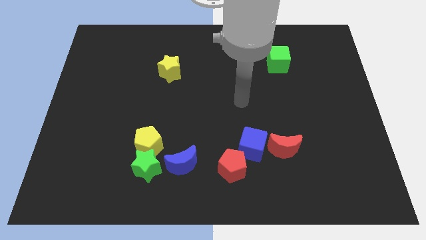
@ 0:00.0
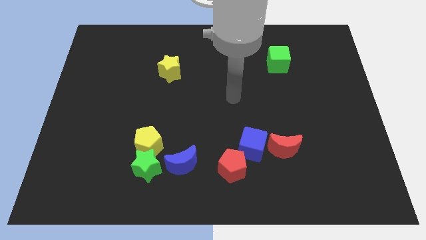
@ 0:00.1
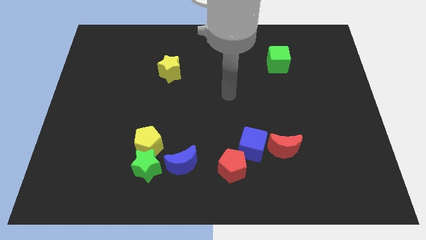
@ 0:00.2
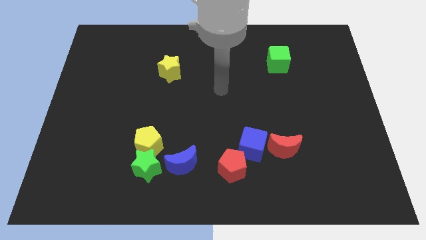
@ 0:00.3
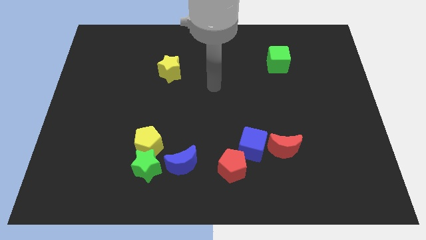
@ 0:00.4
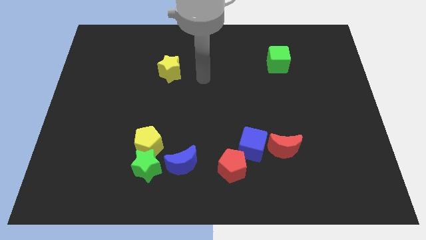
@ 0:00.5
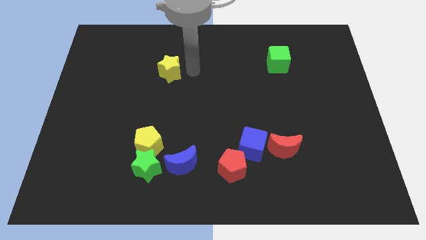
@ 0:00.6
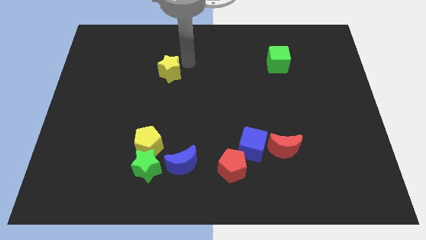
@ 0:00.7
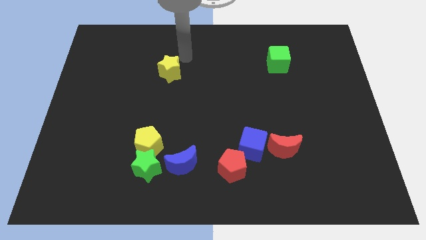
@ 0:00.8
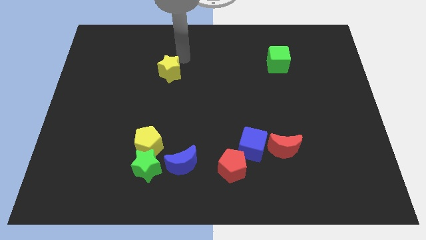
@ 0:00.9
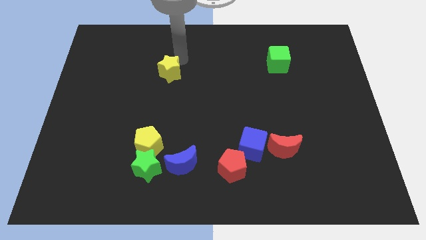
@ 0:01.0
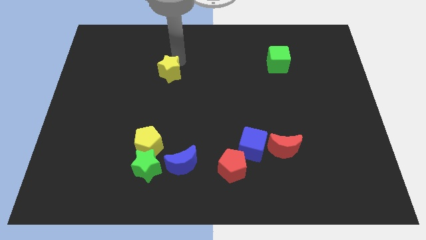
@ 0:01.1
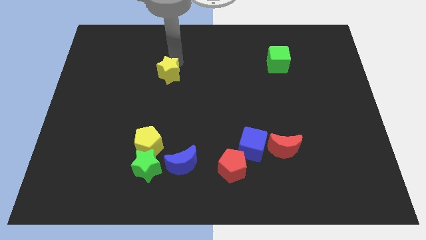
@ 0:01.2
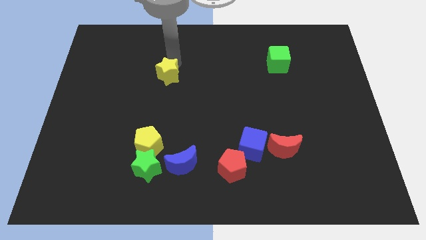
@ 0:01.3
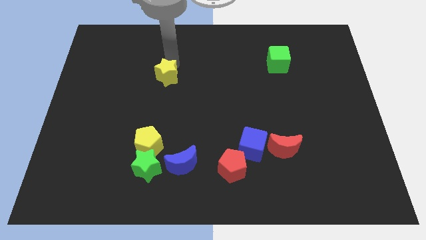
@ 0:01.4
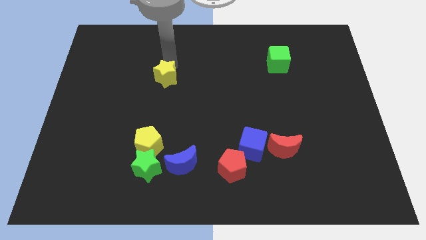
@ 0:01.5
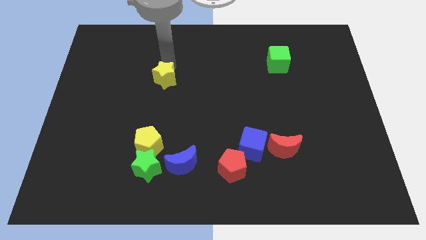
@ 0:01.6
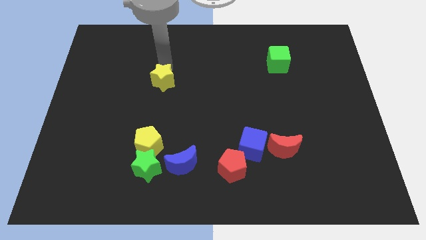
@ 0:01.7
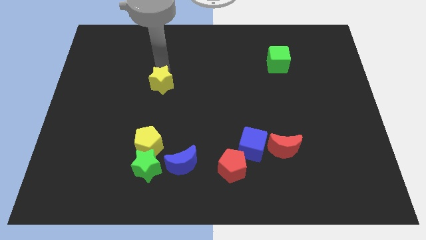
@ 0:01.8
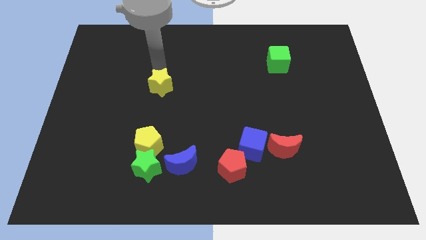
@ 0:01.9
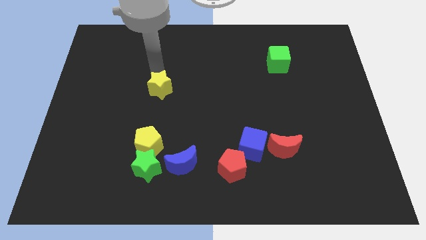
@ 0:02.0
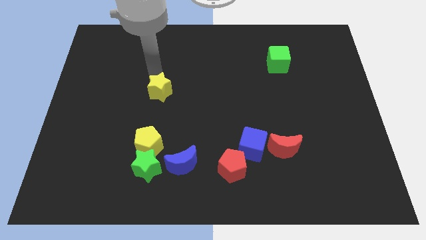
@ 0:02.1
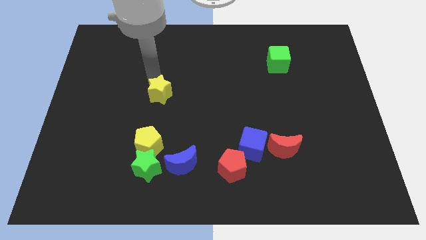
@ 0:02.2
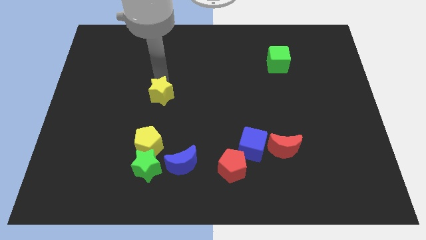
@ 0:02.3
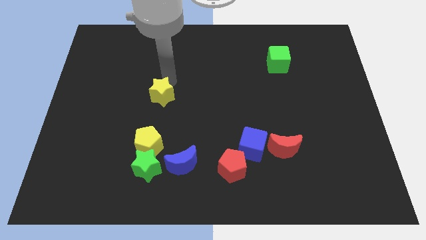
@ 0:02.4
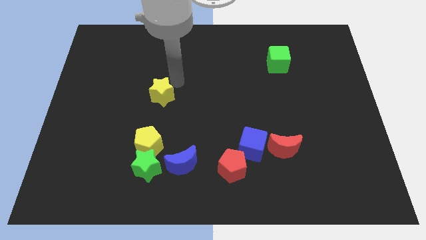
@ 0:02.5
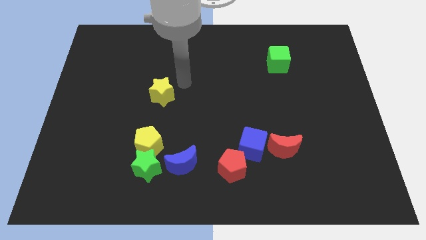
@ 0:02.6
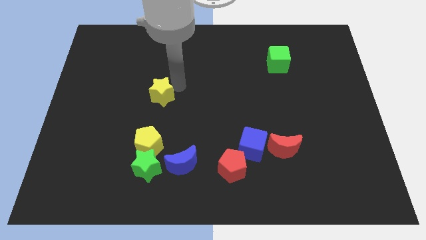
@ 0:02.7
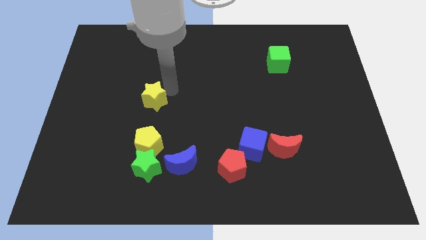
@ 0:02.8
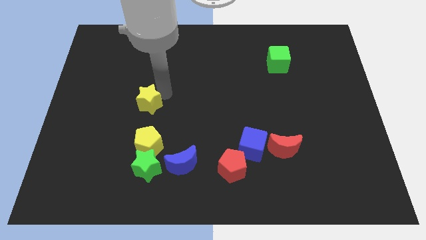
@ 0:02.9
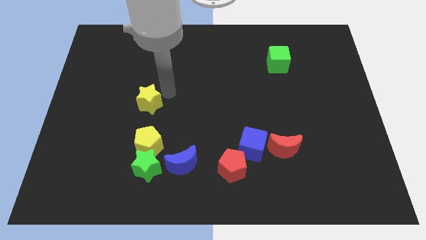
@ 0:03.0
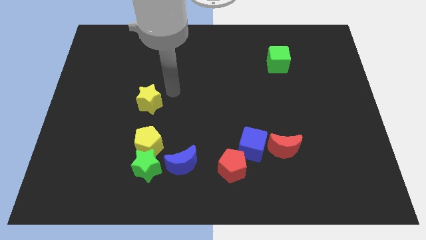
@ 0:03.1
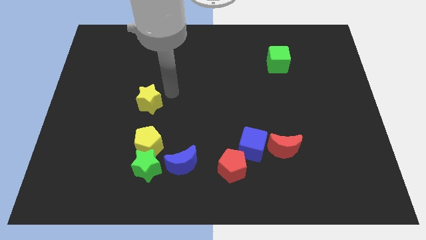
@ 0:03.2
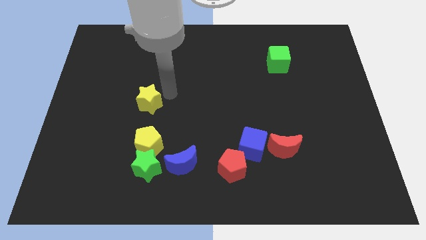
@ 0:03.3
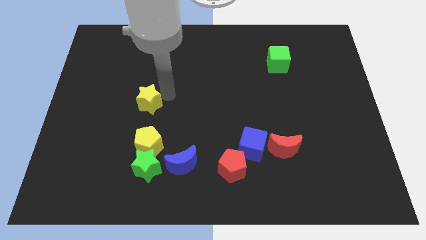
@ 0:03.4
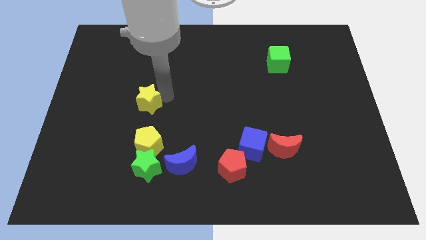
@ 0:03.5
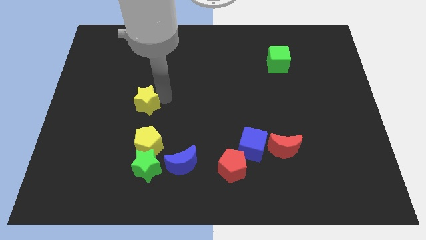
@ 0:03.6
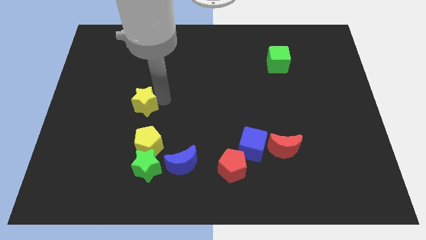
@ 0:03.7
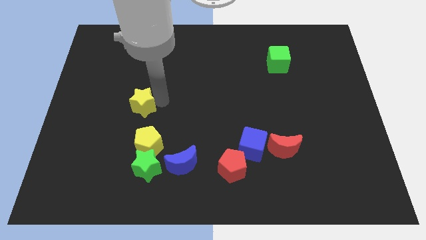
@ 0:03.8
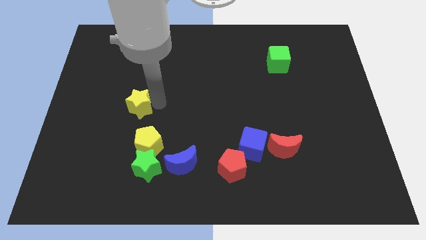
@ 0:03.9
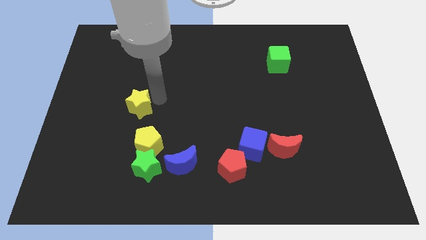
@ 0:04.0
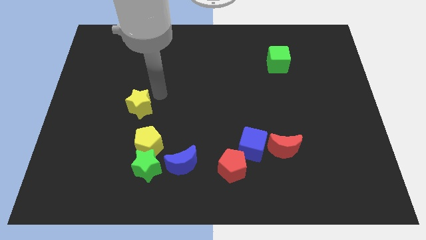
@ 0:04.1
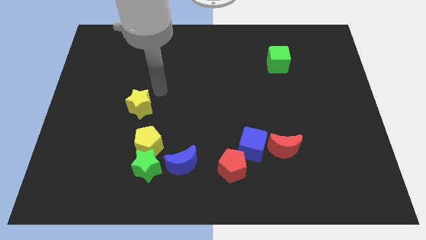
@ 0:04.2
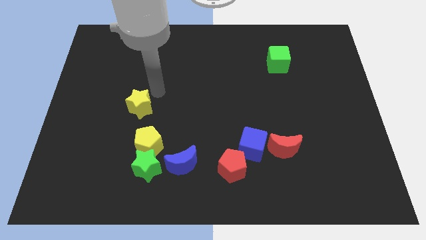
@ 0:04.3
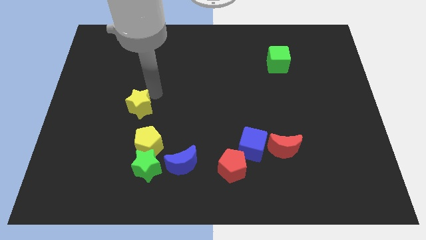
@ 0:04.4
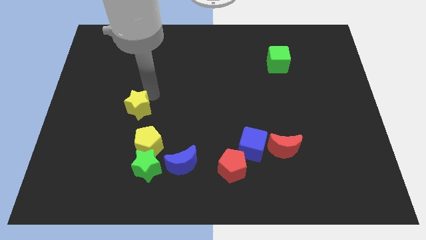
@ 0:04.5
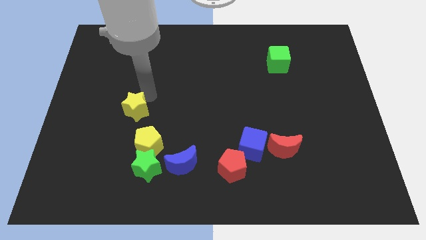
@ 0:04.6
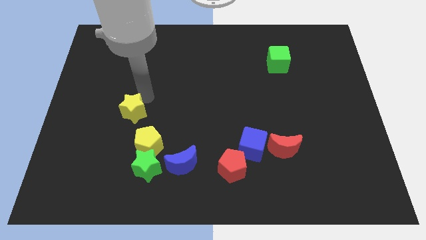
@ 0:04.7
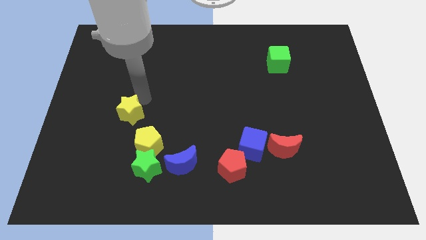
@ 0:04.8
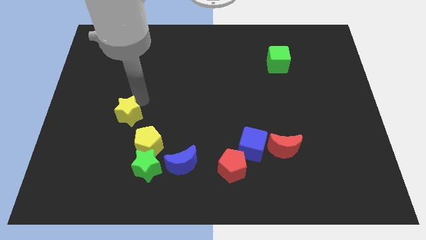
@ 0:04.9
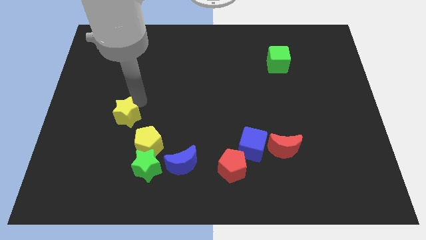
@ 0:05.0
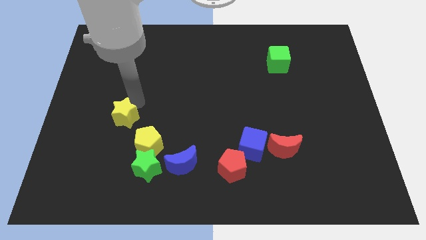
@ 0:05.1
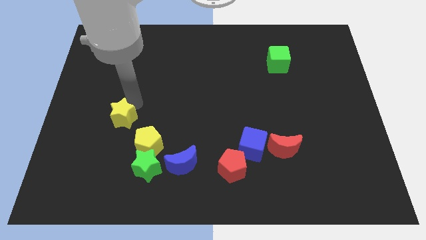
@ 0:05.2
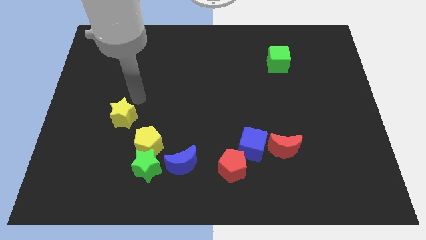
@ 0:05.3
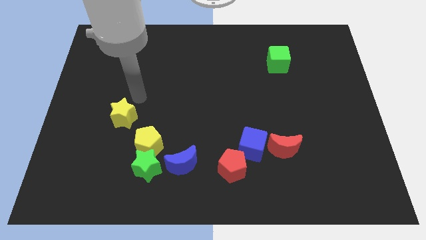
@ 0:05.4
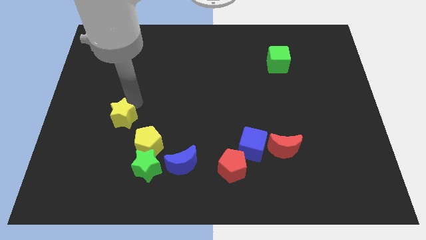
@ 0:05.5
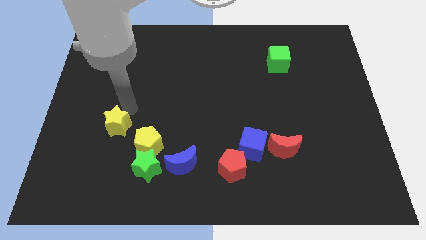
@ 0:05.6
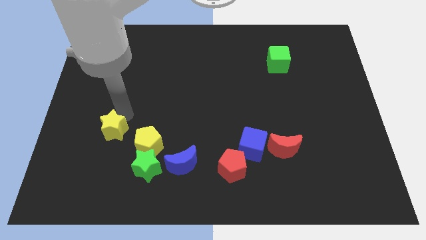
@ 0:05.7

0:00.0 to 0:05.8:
move the yellow star to the left side of the yellow pentagon

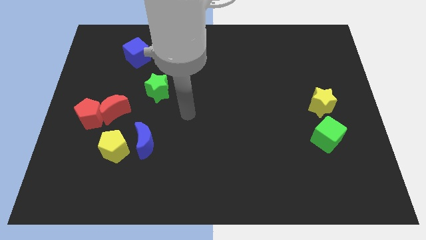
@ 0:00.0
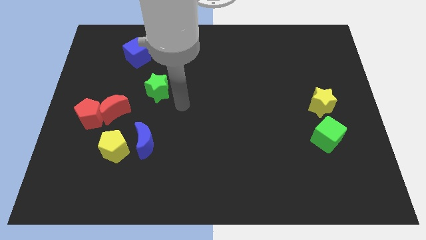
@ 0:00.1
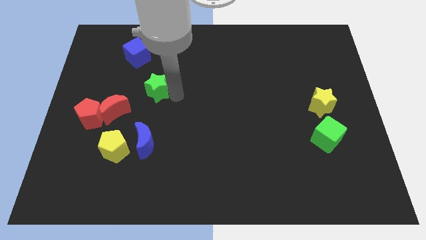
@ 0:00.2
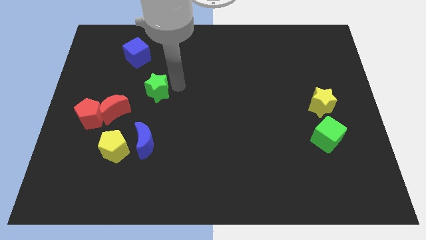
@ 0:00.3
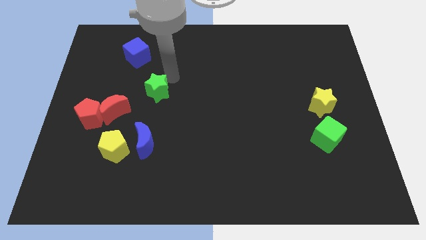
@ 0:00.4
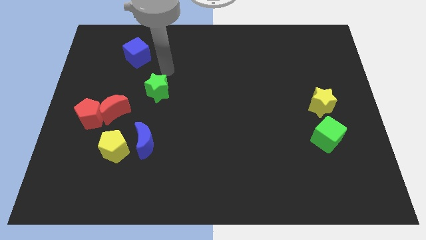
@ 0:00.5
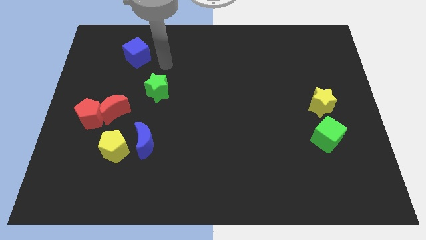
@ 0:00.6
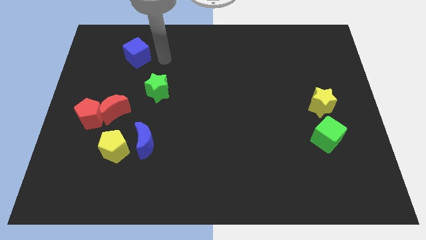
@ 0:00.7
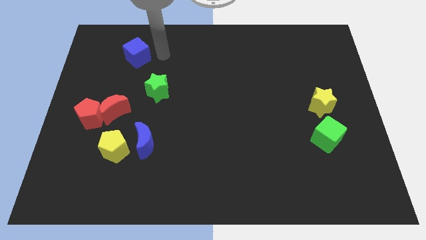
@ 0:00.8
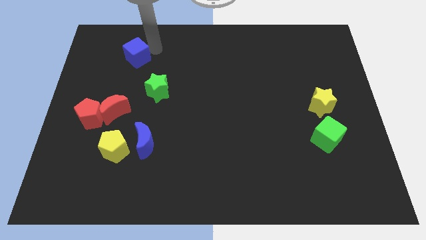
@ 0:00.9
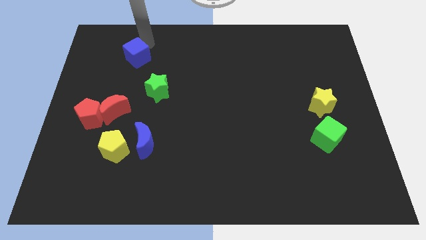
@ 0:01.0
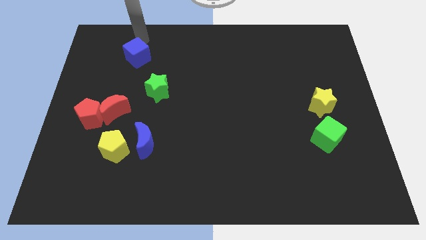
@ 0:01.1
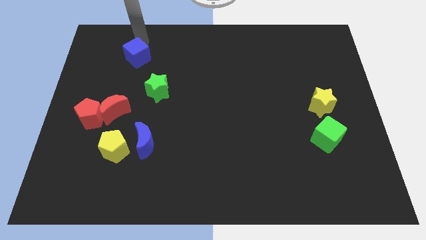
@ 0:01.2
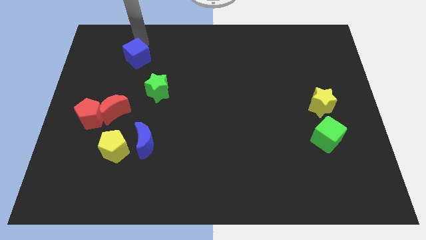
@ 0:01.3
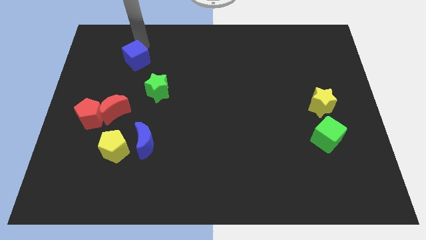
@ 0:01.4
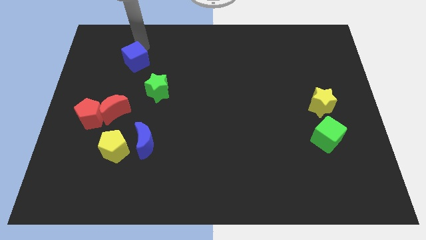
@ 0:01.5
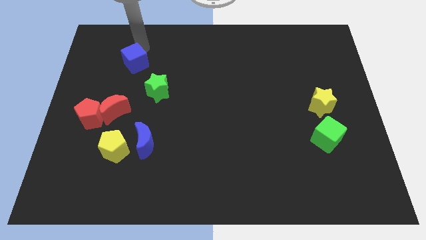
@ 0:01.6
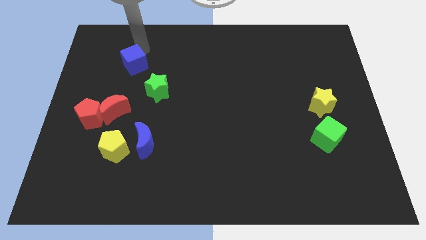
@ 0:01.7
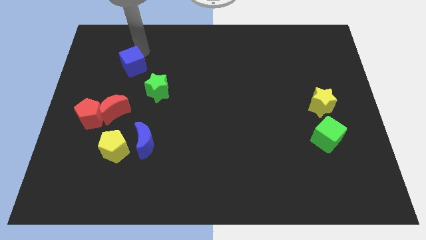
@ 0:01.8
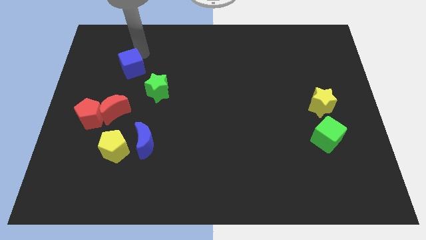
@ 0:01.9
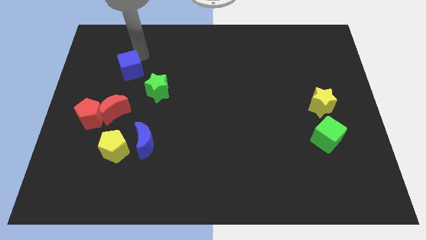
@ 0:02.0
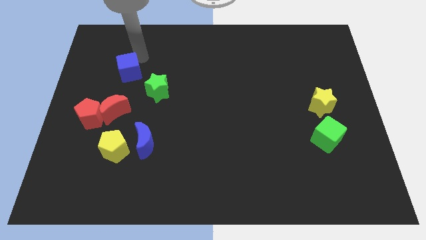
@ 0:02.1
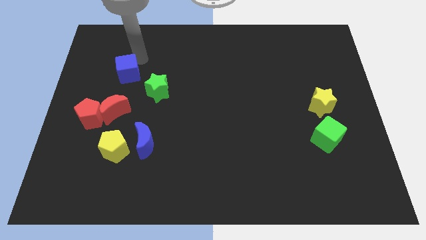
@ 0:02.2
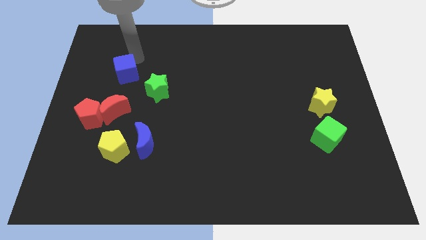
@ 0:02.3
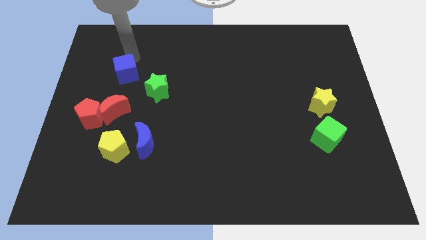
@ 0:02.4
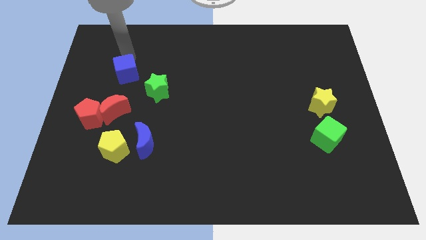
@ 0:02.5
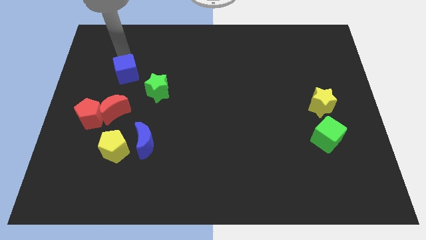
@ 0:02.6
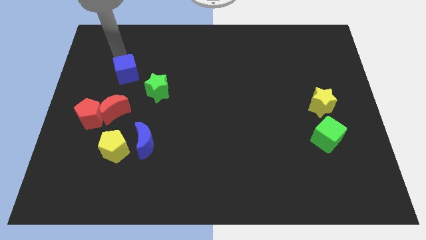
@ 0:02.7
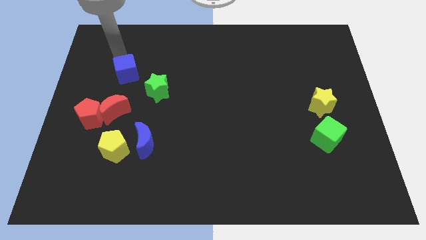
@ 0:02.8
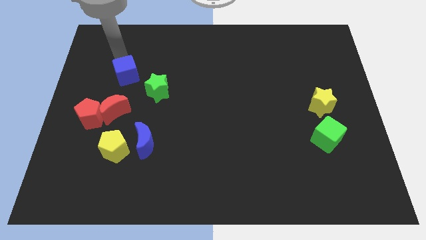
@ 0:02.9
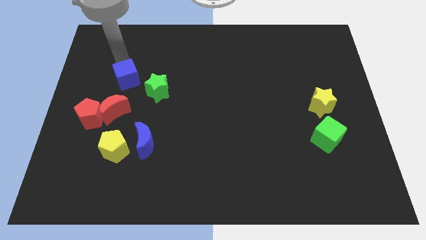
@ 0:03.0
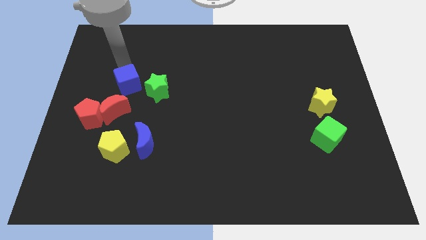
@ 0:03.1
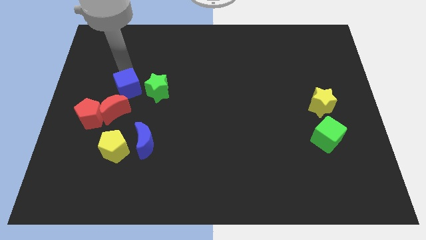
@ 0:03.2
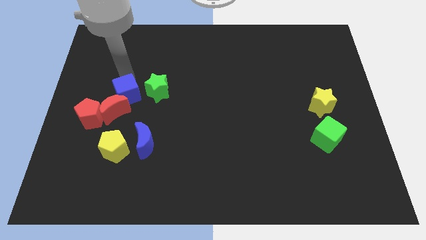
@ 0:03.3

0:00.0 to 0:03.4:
push the blue cube to the bottom left side of the green star
